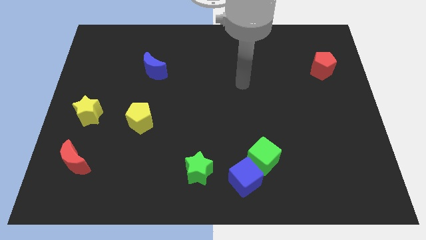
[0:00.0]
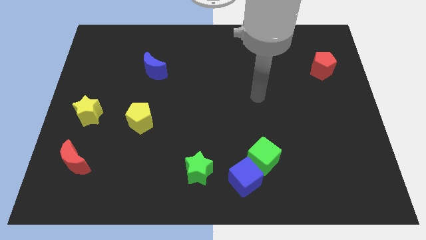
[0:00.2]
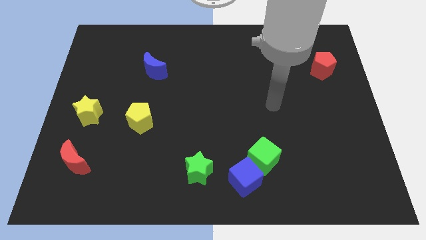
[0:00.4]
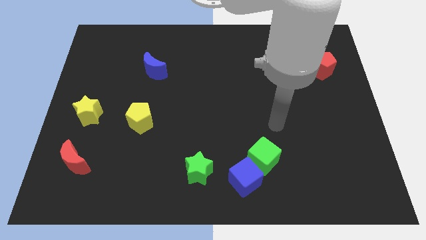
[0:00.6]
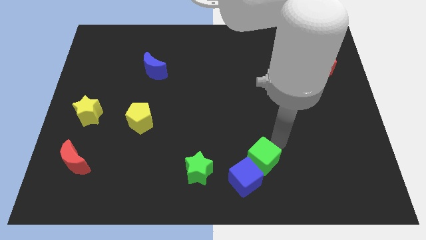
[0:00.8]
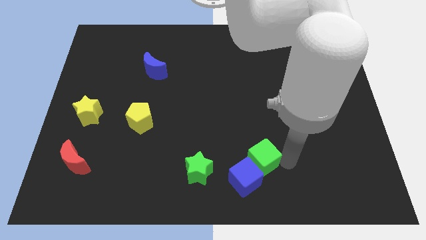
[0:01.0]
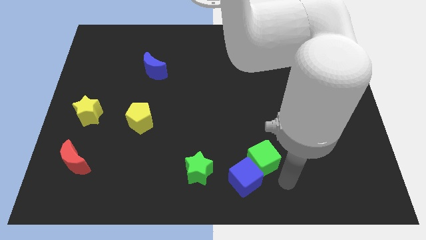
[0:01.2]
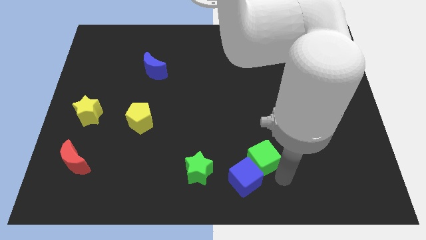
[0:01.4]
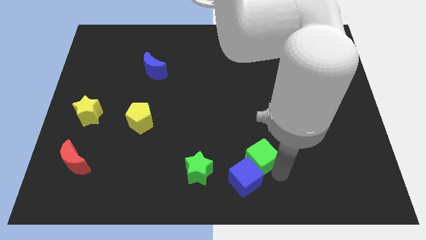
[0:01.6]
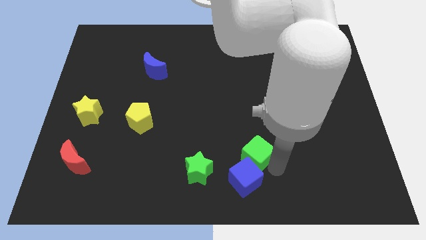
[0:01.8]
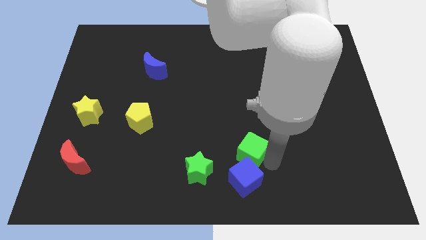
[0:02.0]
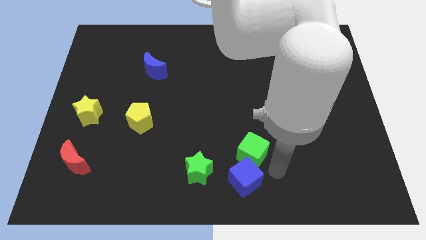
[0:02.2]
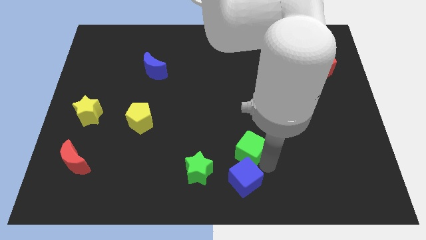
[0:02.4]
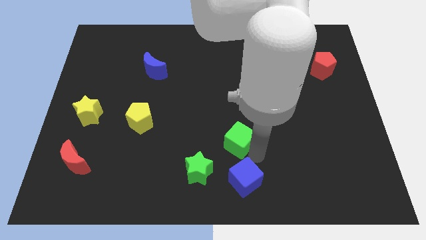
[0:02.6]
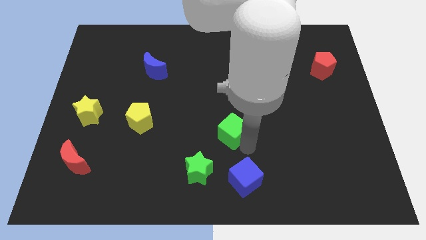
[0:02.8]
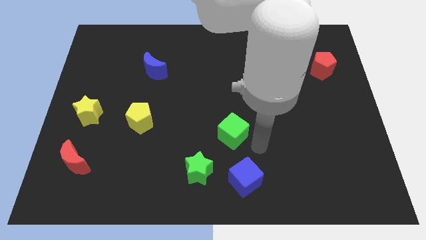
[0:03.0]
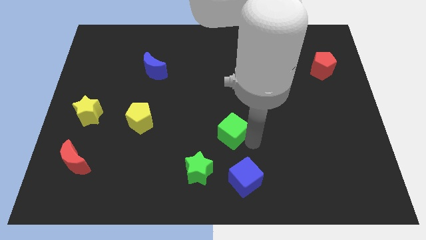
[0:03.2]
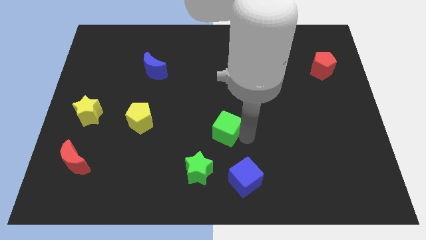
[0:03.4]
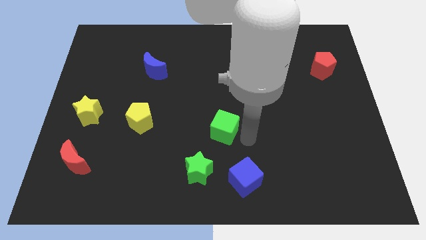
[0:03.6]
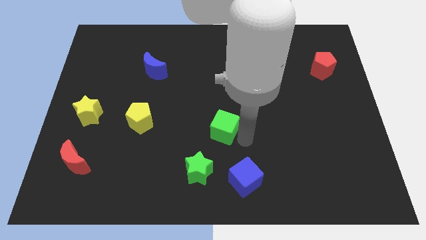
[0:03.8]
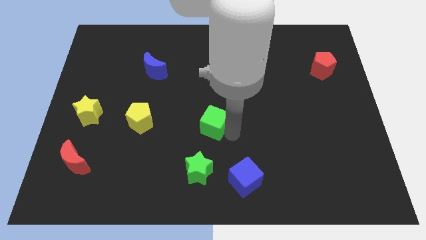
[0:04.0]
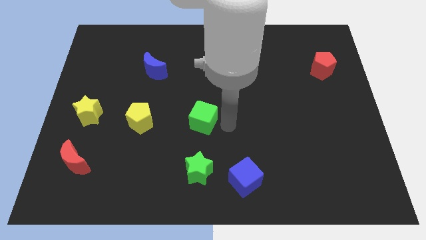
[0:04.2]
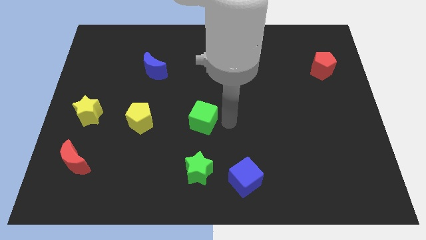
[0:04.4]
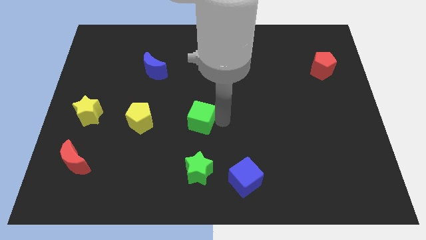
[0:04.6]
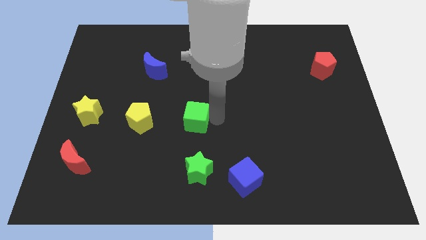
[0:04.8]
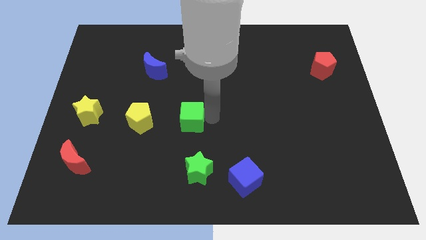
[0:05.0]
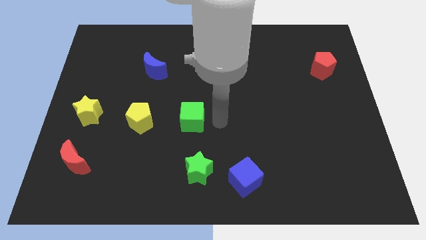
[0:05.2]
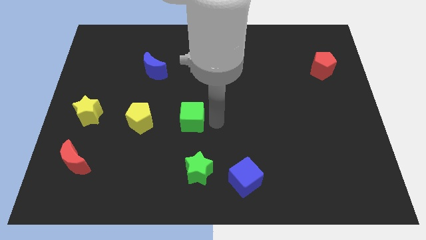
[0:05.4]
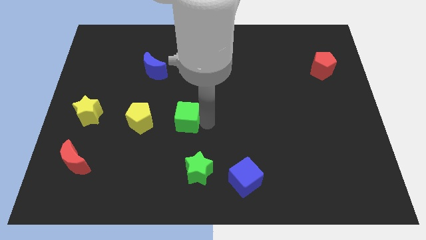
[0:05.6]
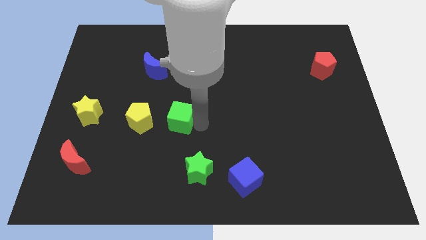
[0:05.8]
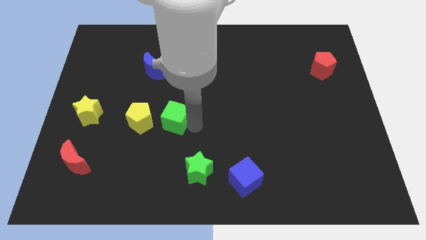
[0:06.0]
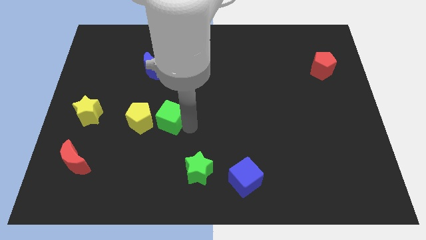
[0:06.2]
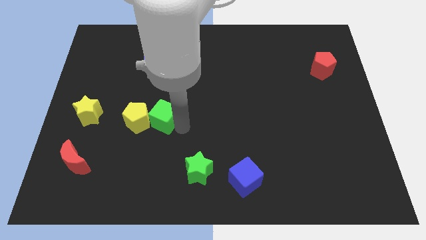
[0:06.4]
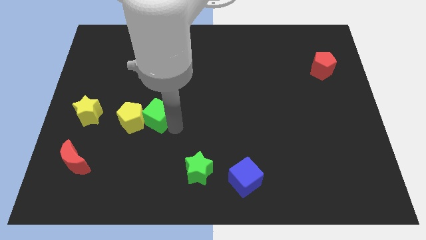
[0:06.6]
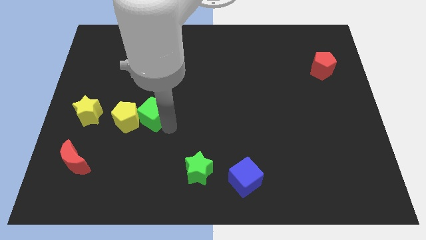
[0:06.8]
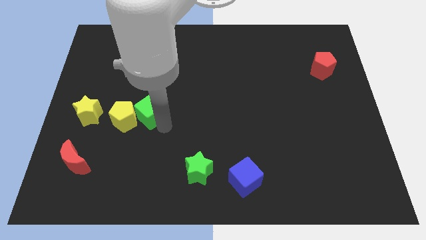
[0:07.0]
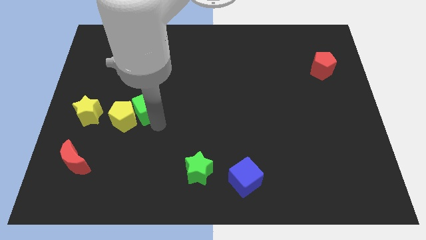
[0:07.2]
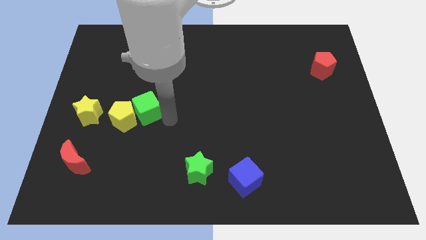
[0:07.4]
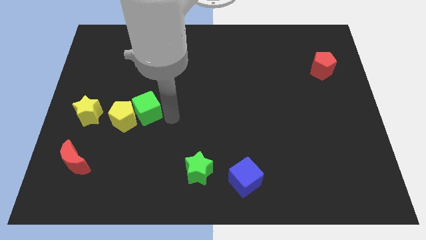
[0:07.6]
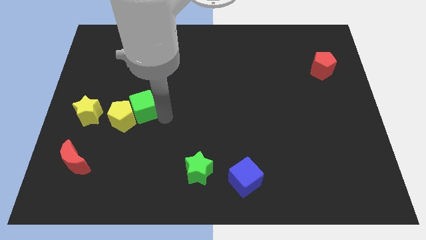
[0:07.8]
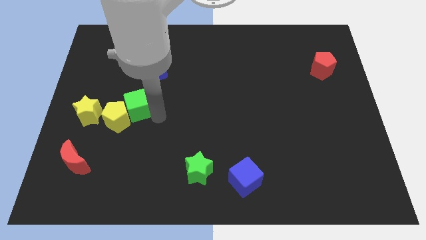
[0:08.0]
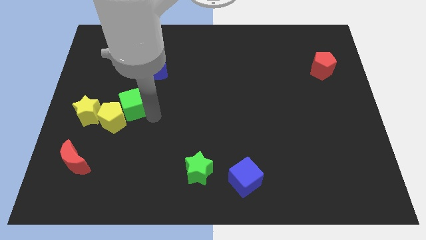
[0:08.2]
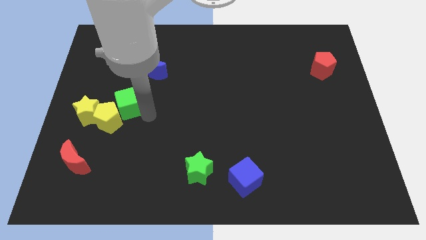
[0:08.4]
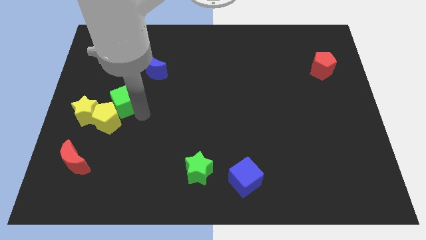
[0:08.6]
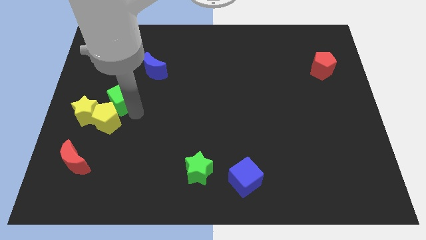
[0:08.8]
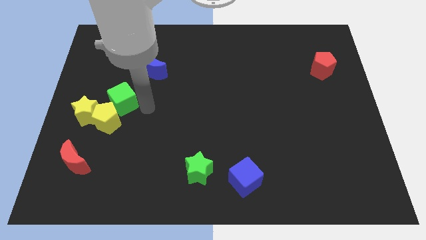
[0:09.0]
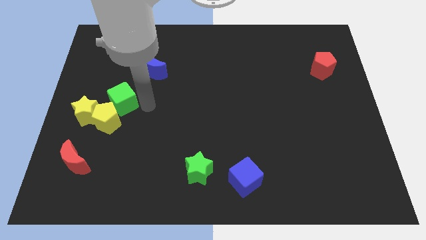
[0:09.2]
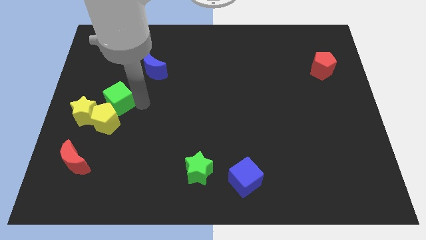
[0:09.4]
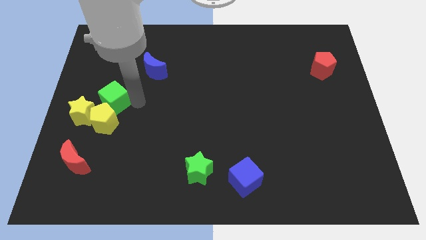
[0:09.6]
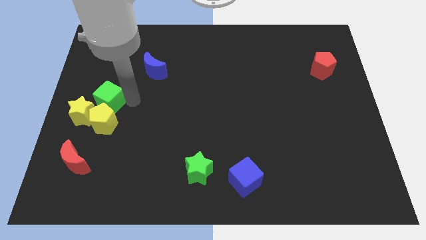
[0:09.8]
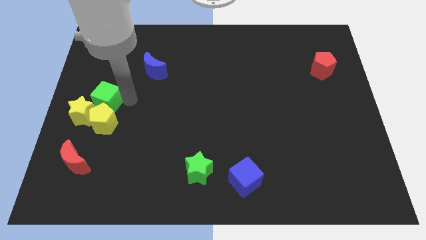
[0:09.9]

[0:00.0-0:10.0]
put the green cube to the center left

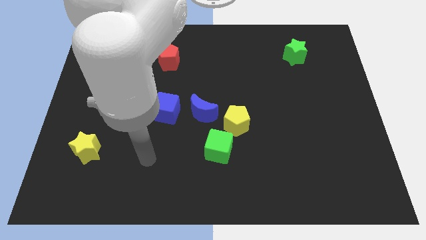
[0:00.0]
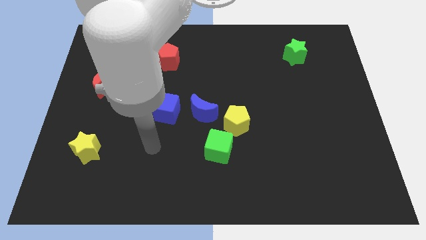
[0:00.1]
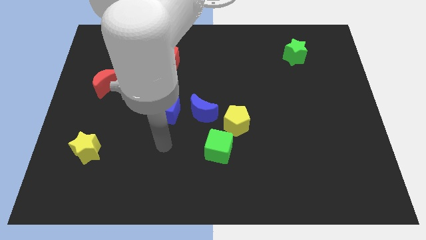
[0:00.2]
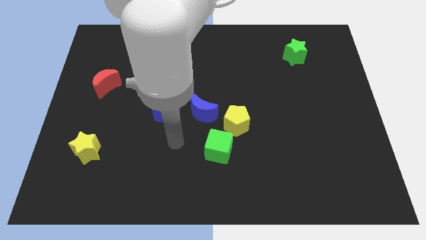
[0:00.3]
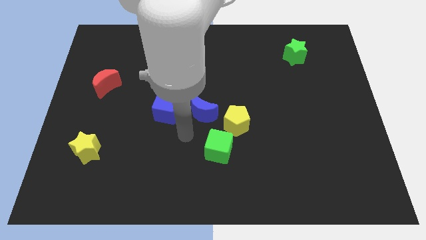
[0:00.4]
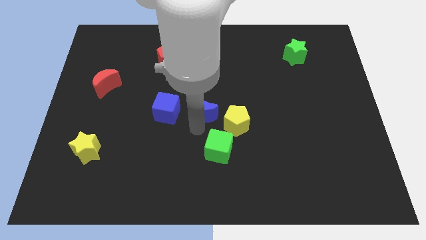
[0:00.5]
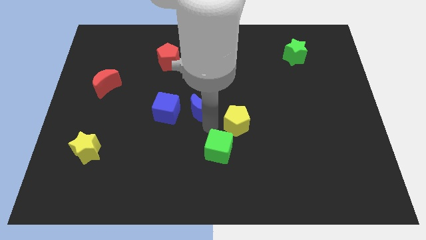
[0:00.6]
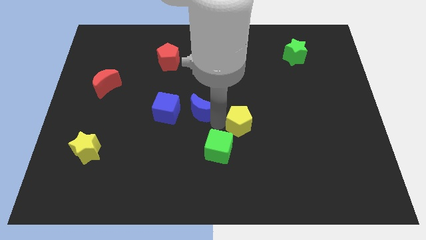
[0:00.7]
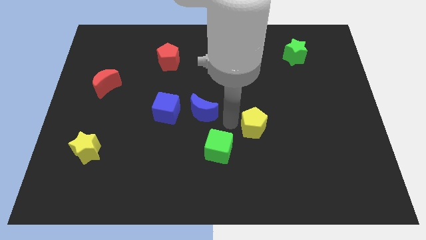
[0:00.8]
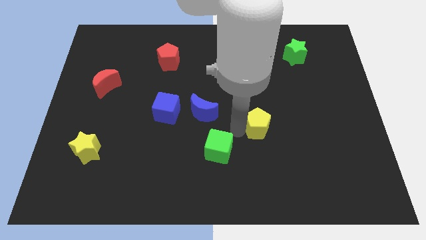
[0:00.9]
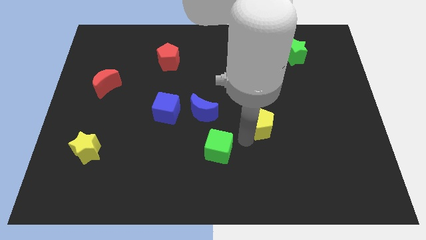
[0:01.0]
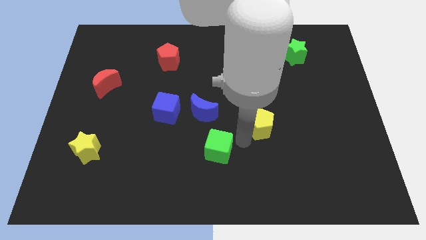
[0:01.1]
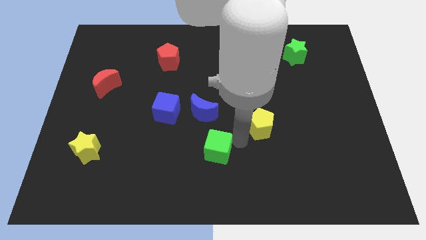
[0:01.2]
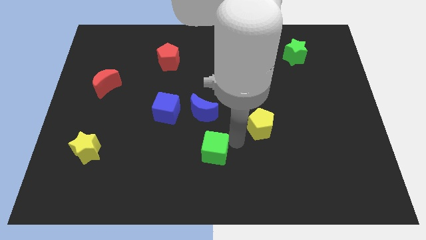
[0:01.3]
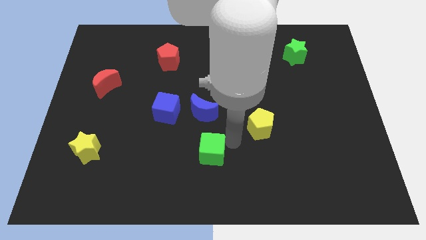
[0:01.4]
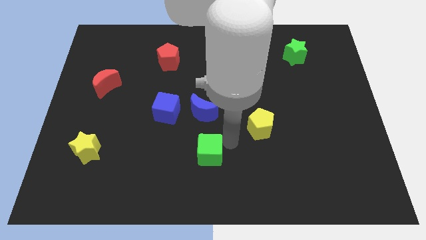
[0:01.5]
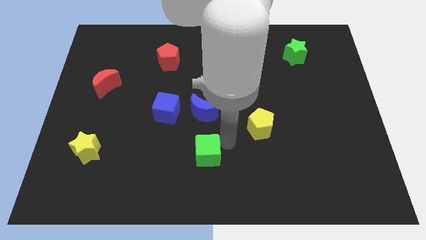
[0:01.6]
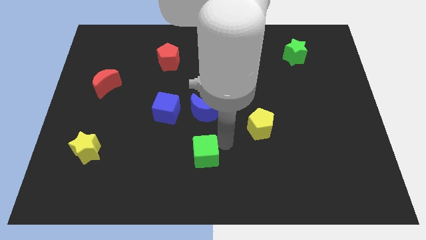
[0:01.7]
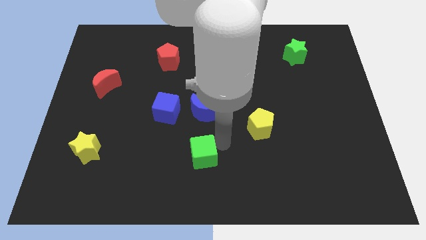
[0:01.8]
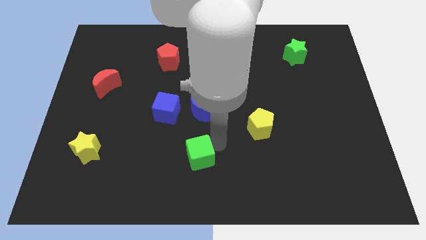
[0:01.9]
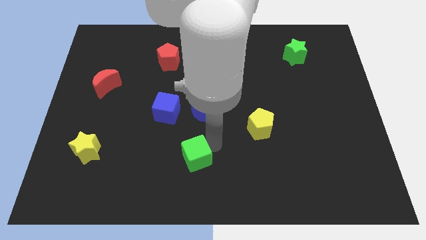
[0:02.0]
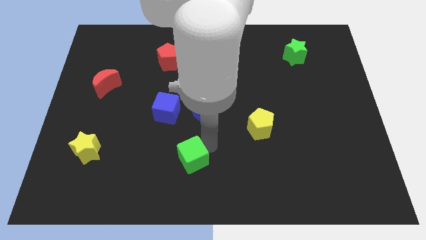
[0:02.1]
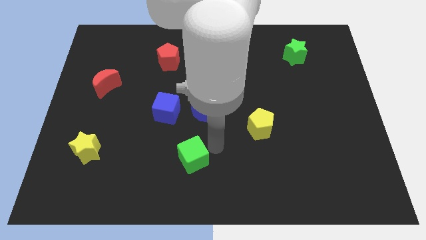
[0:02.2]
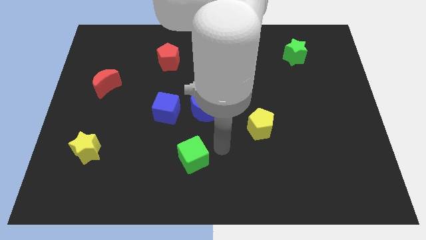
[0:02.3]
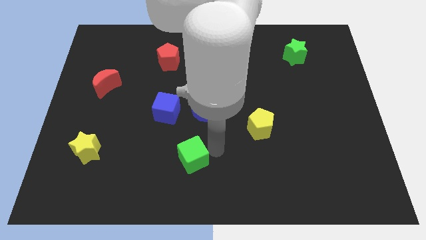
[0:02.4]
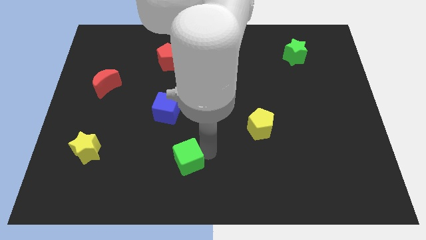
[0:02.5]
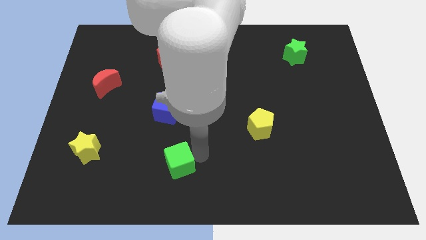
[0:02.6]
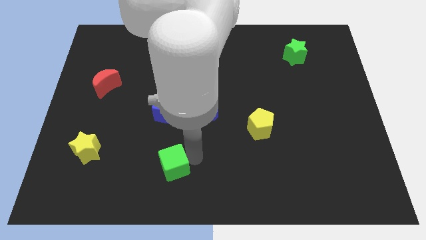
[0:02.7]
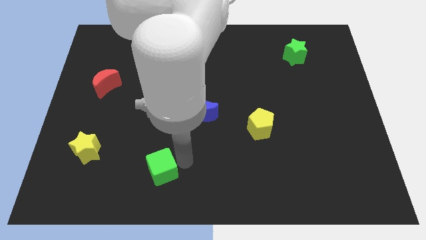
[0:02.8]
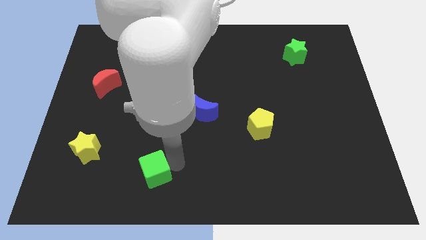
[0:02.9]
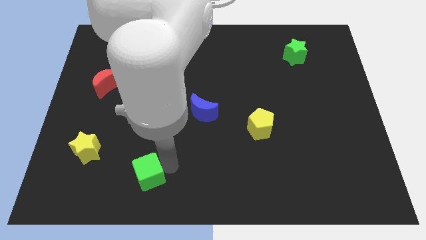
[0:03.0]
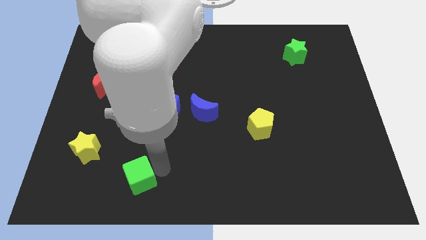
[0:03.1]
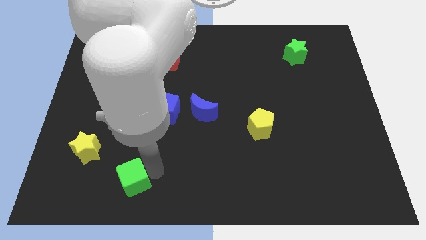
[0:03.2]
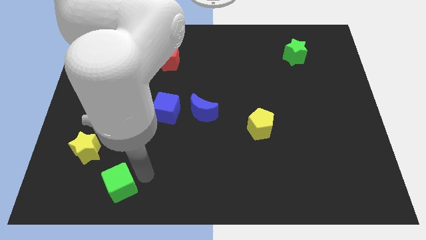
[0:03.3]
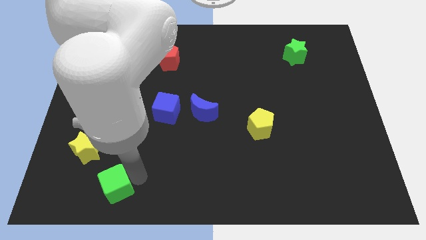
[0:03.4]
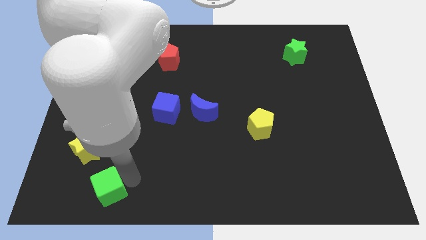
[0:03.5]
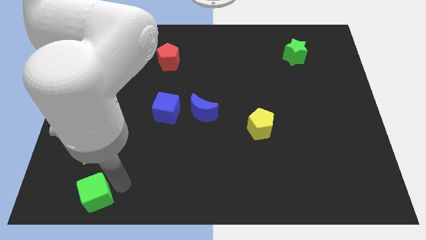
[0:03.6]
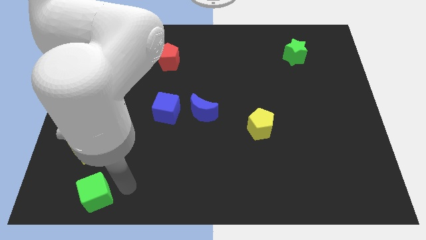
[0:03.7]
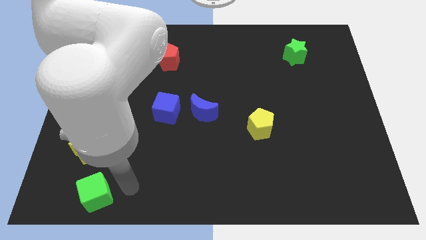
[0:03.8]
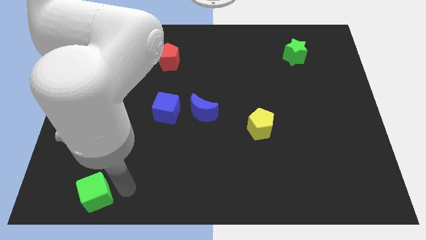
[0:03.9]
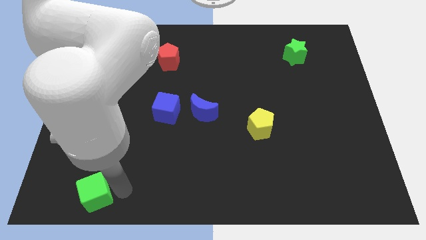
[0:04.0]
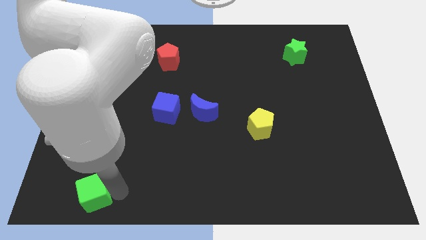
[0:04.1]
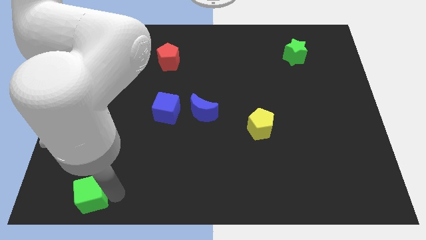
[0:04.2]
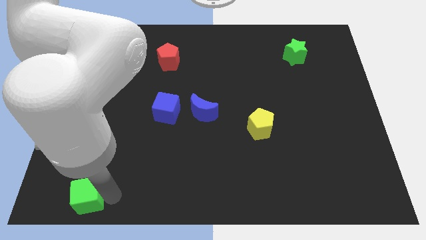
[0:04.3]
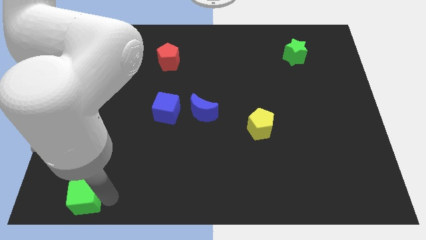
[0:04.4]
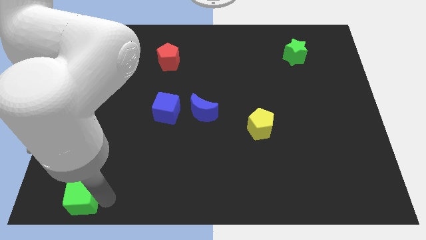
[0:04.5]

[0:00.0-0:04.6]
move the green cube to the bottom left
